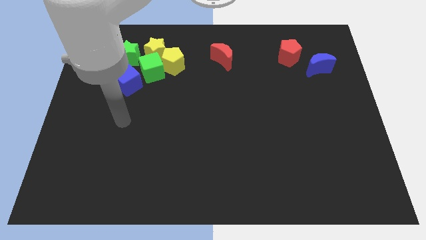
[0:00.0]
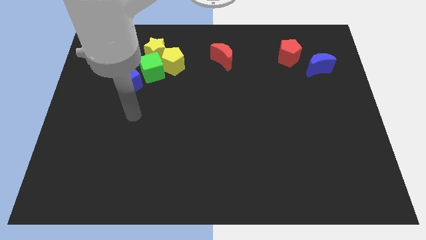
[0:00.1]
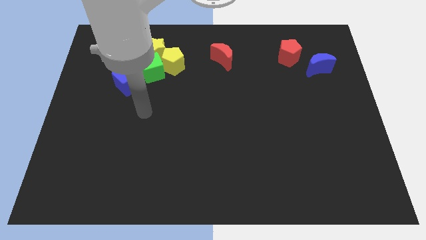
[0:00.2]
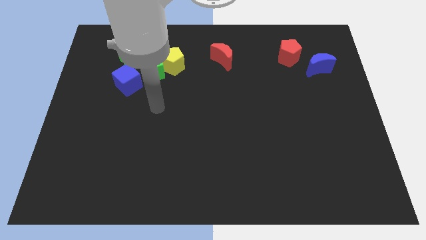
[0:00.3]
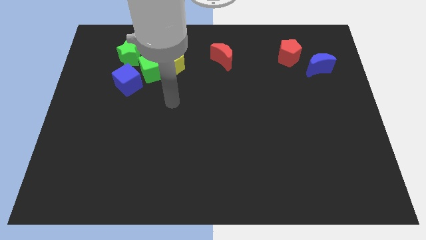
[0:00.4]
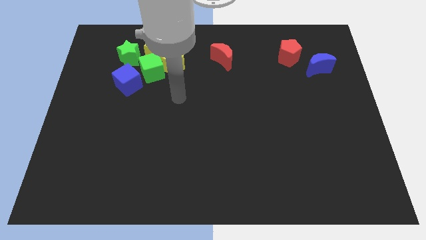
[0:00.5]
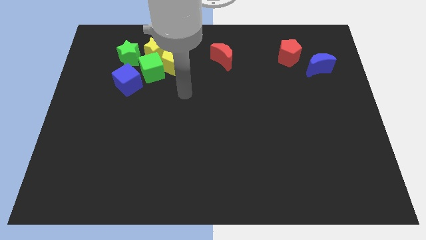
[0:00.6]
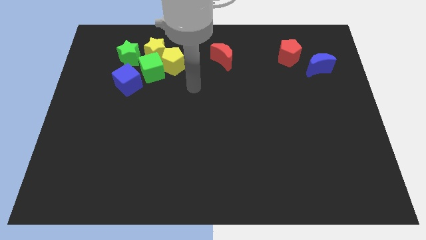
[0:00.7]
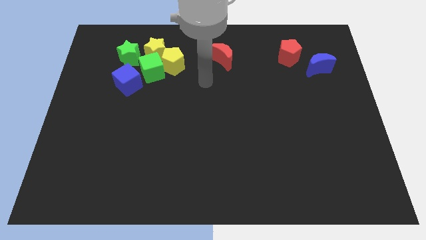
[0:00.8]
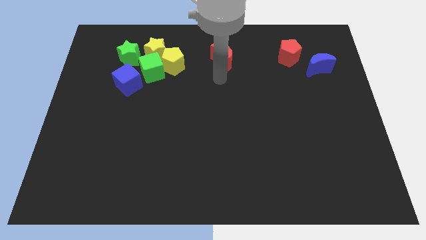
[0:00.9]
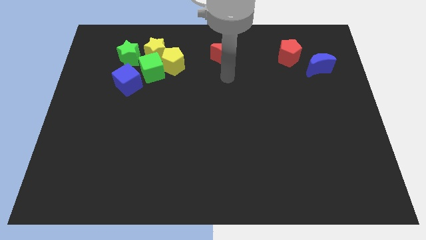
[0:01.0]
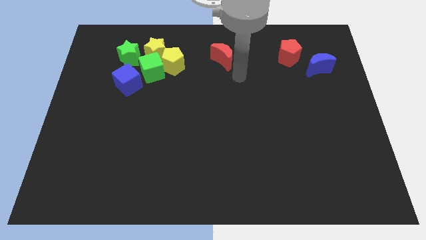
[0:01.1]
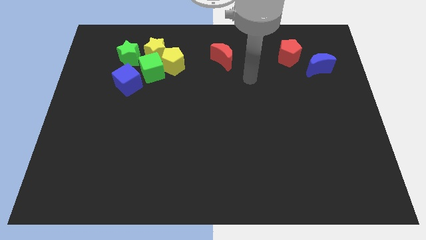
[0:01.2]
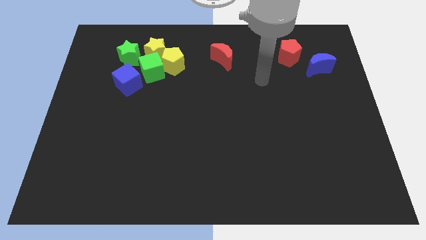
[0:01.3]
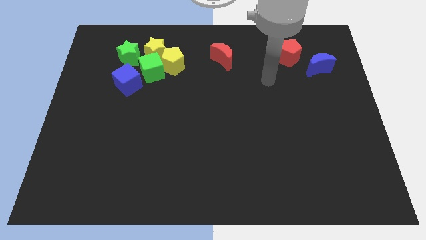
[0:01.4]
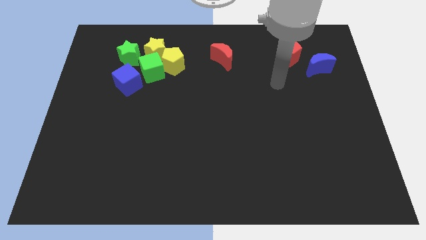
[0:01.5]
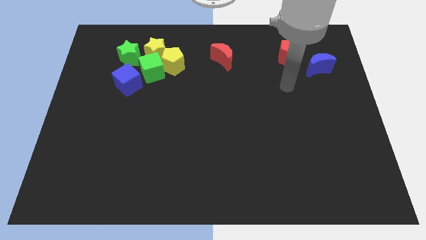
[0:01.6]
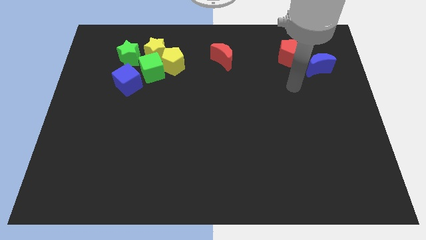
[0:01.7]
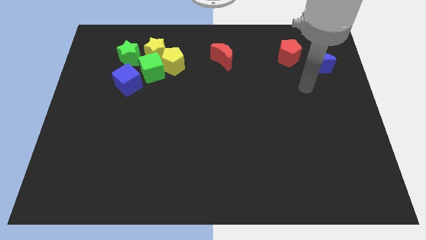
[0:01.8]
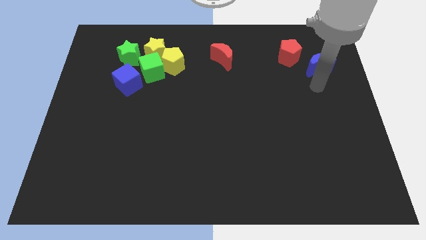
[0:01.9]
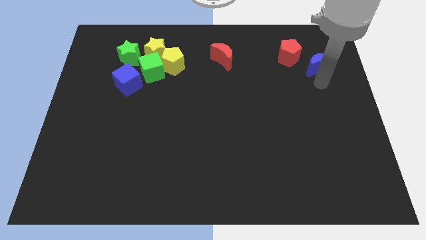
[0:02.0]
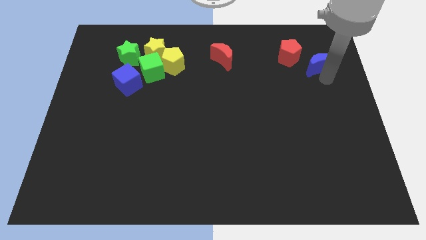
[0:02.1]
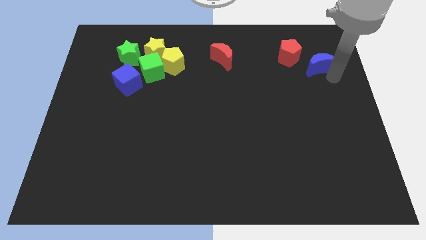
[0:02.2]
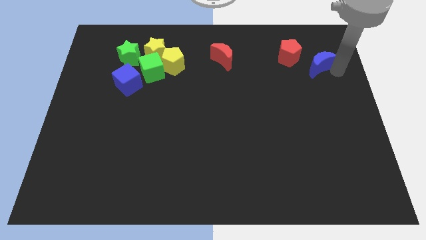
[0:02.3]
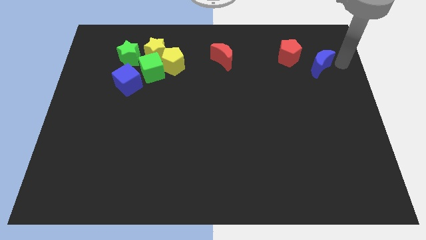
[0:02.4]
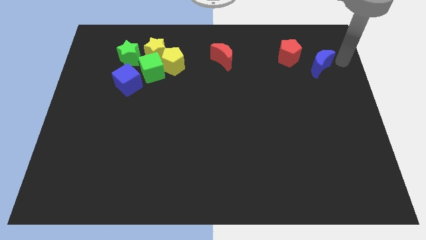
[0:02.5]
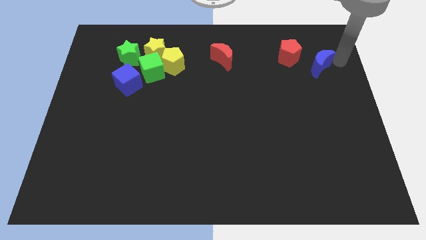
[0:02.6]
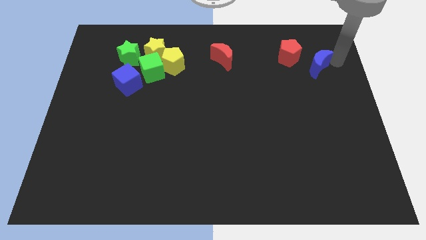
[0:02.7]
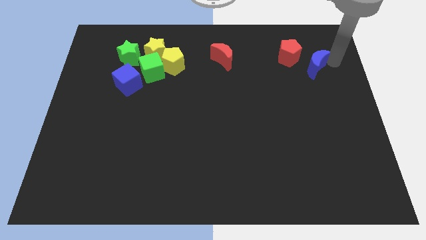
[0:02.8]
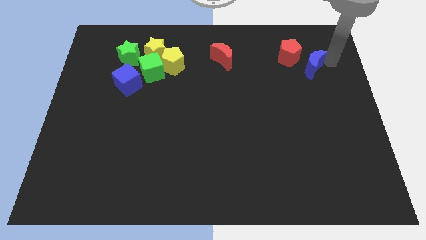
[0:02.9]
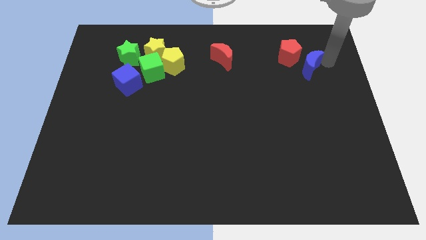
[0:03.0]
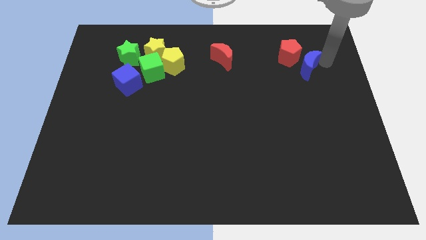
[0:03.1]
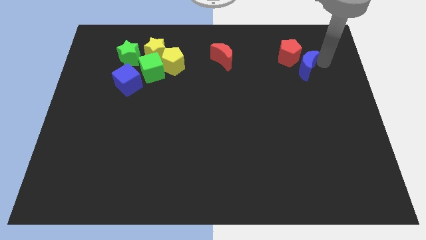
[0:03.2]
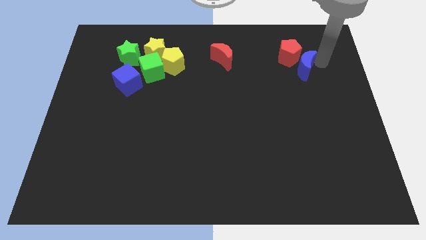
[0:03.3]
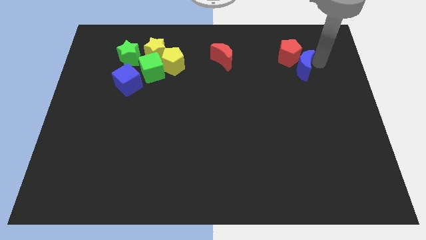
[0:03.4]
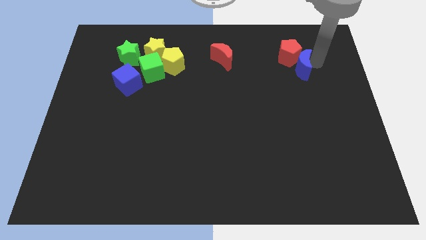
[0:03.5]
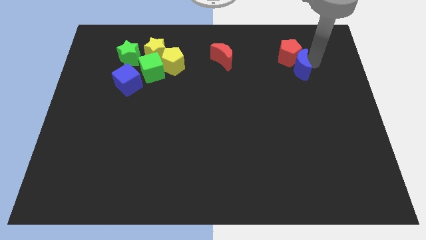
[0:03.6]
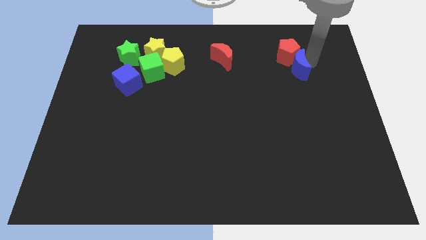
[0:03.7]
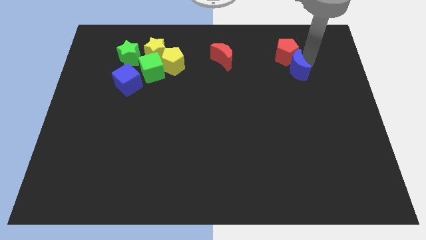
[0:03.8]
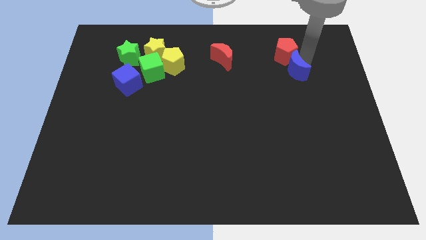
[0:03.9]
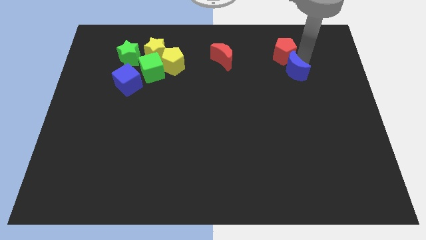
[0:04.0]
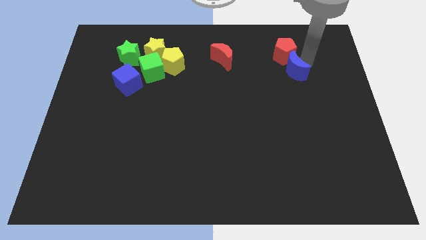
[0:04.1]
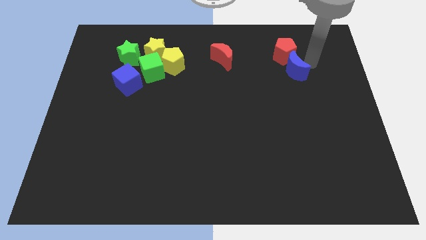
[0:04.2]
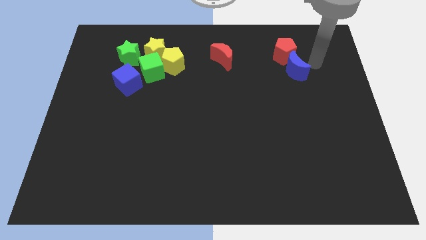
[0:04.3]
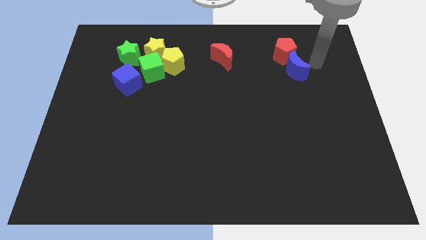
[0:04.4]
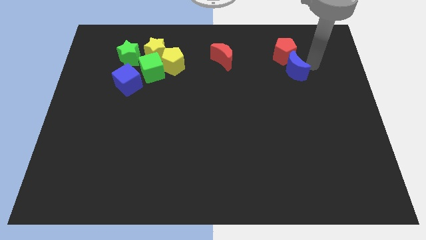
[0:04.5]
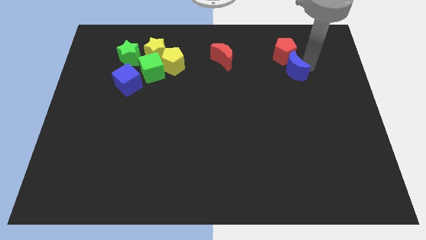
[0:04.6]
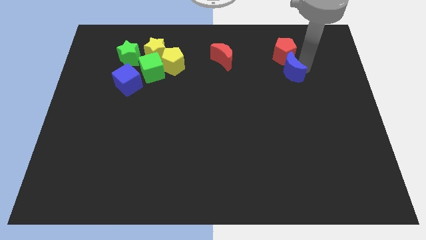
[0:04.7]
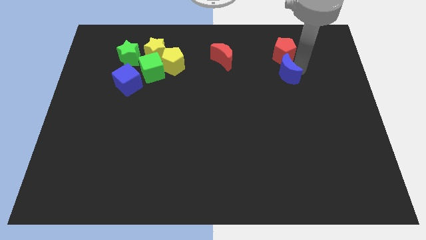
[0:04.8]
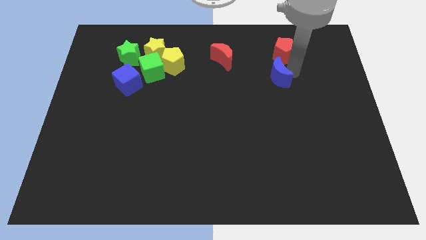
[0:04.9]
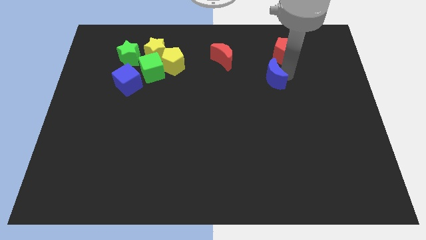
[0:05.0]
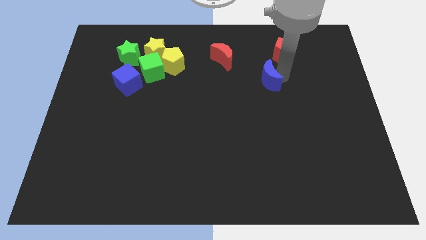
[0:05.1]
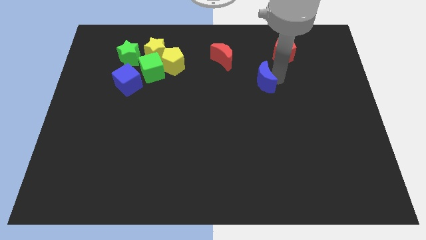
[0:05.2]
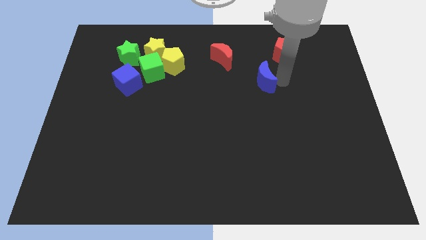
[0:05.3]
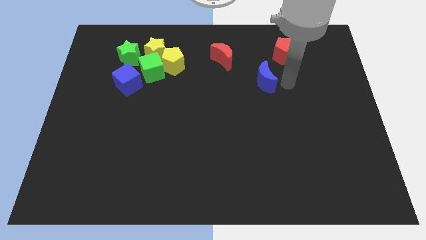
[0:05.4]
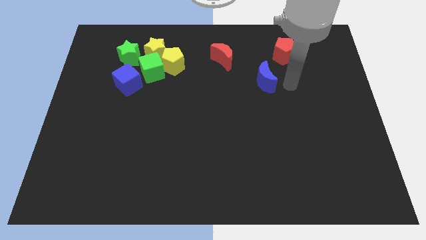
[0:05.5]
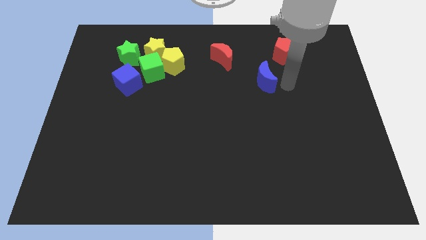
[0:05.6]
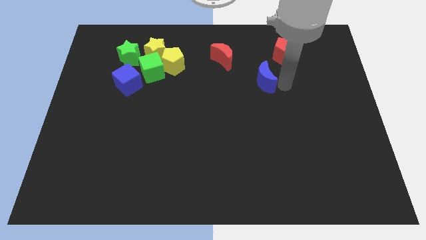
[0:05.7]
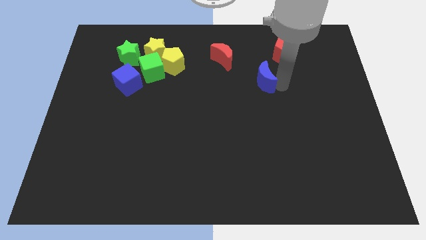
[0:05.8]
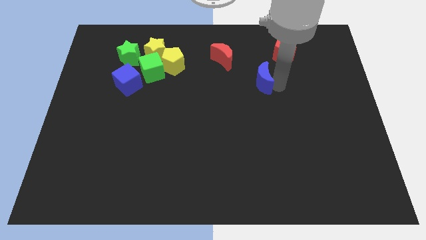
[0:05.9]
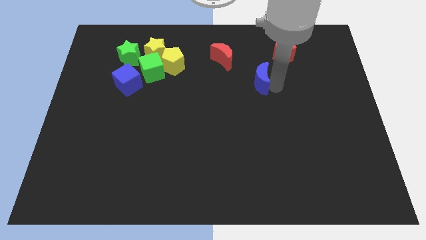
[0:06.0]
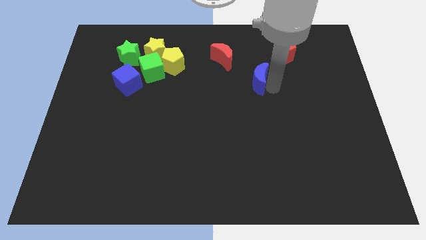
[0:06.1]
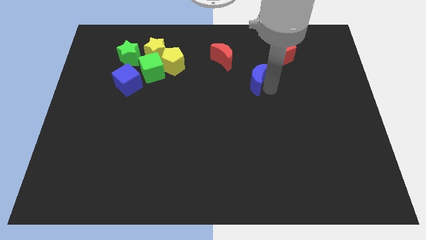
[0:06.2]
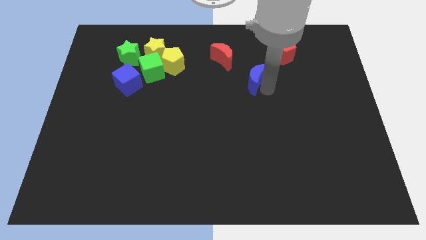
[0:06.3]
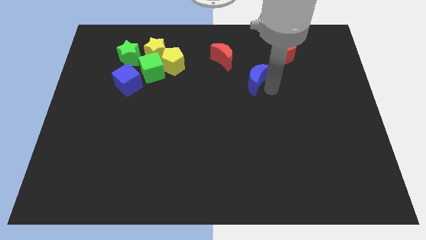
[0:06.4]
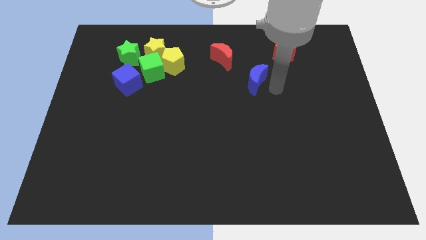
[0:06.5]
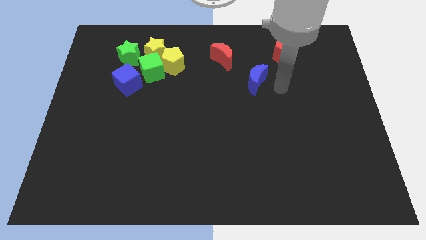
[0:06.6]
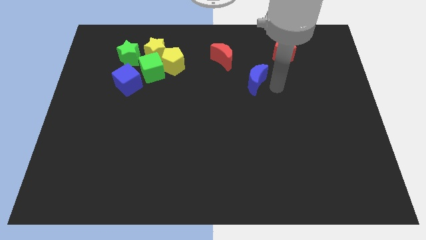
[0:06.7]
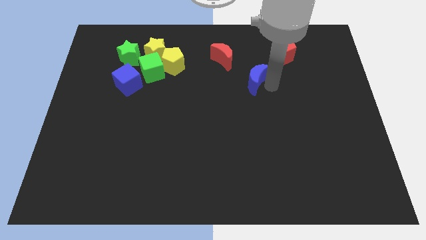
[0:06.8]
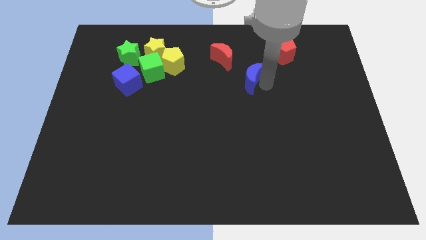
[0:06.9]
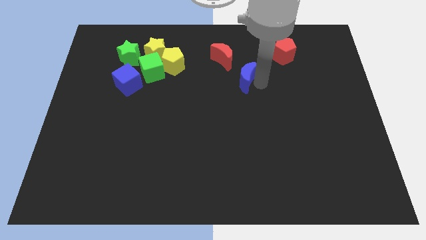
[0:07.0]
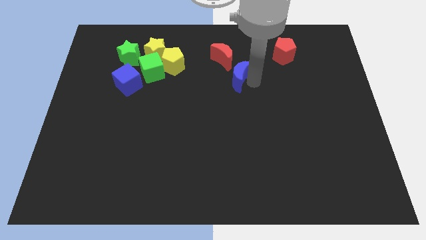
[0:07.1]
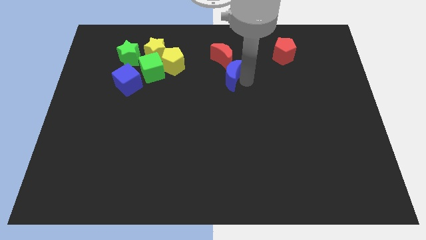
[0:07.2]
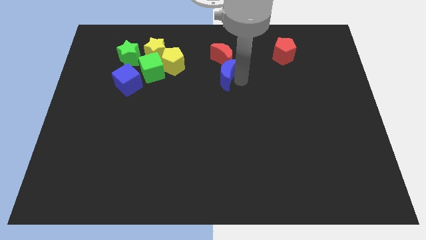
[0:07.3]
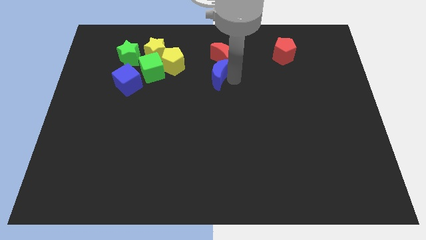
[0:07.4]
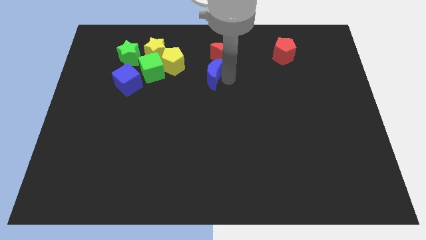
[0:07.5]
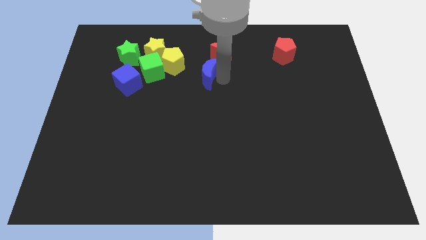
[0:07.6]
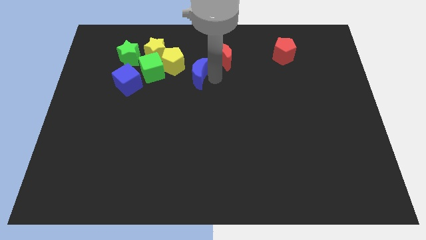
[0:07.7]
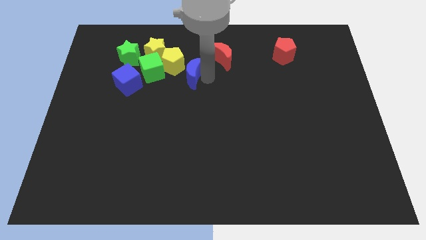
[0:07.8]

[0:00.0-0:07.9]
push the blue moon diagonally down and to the right of the yellow star
